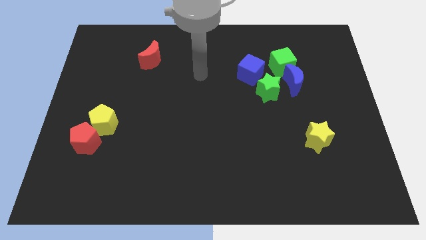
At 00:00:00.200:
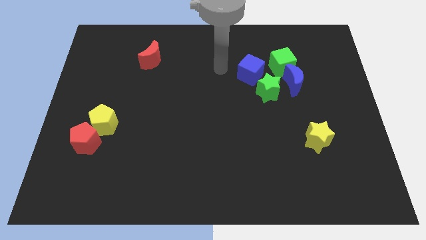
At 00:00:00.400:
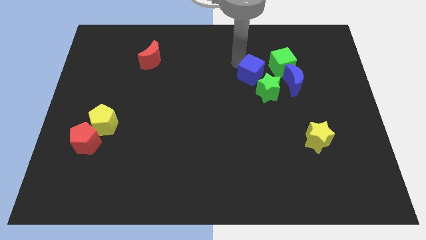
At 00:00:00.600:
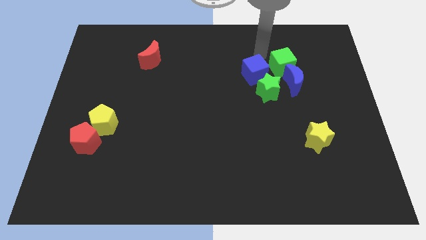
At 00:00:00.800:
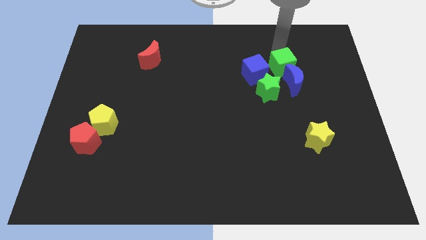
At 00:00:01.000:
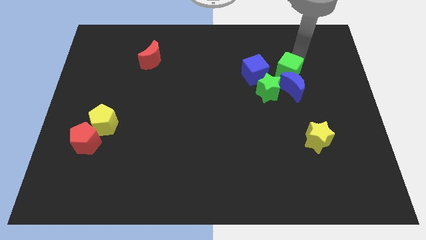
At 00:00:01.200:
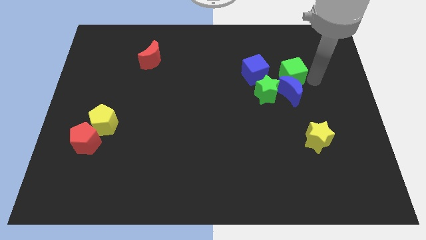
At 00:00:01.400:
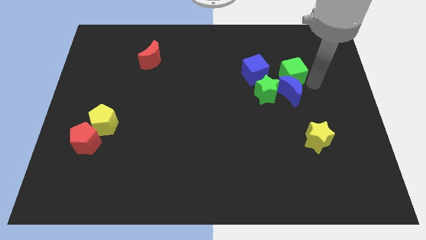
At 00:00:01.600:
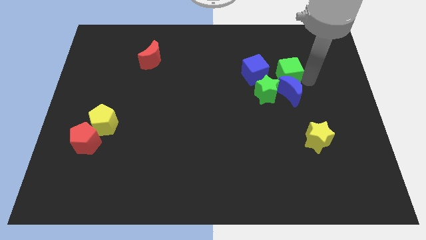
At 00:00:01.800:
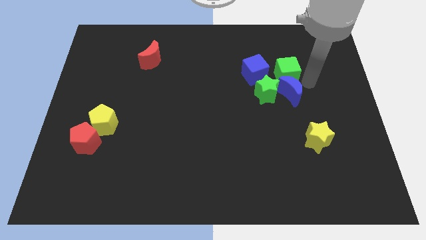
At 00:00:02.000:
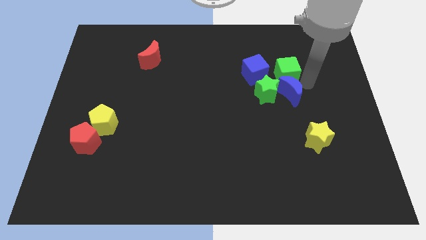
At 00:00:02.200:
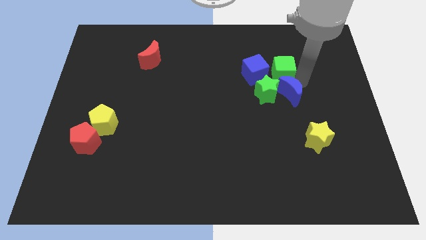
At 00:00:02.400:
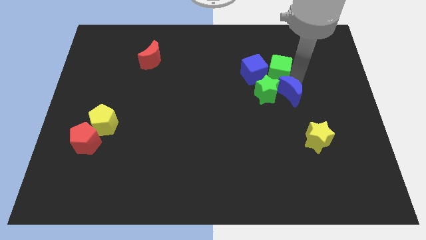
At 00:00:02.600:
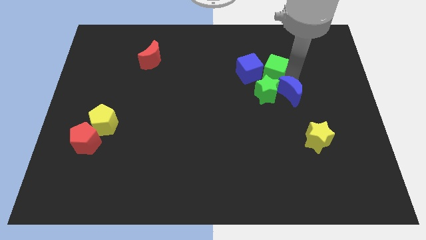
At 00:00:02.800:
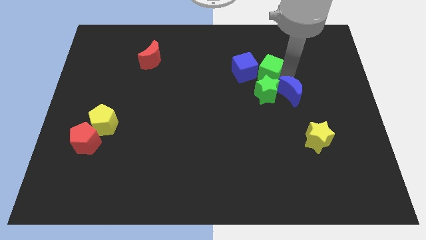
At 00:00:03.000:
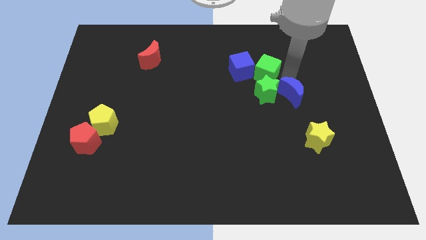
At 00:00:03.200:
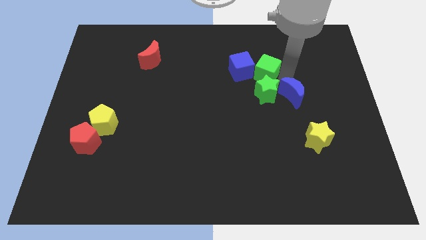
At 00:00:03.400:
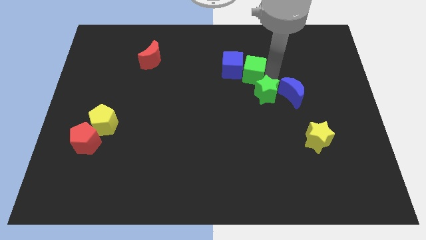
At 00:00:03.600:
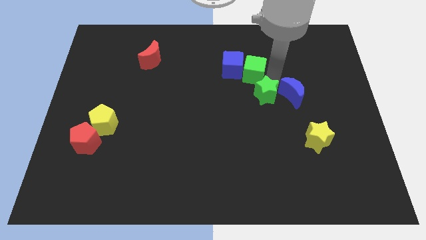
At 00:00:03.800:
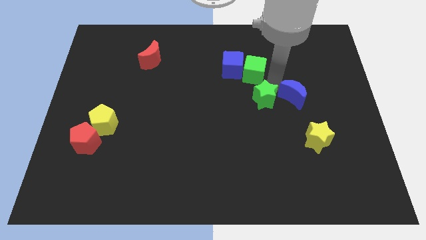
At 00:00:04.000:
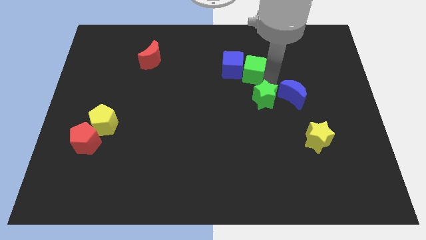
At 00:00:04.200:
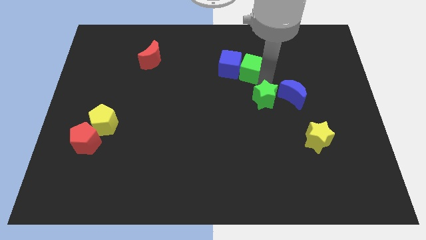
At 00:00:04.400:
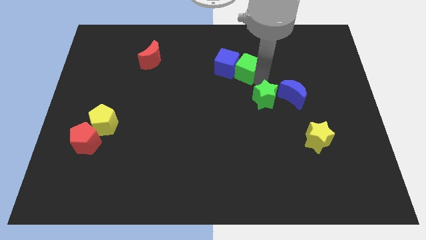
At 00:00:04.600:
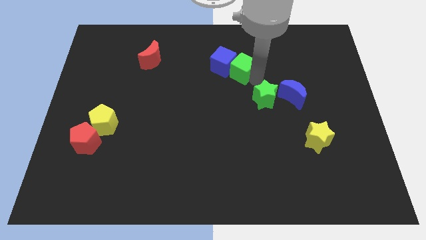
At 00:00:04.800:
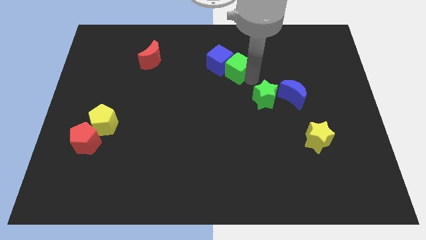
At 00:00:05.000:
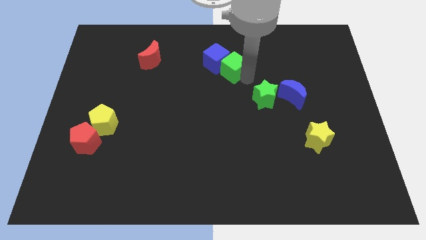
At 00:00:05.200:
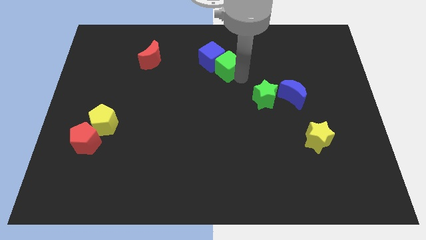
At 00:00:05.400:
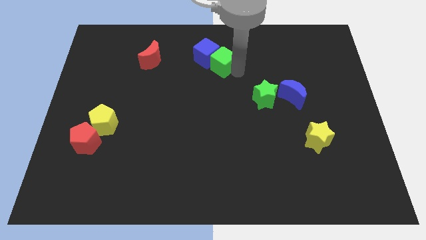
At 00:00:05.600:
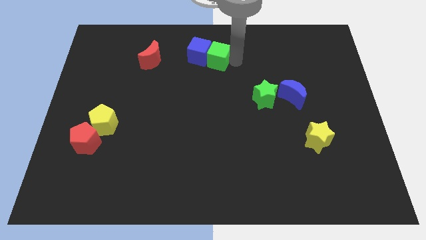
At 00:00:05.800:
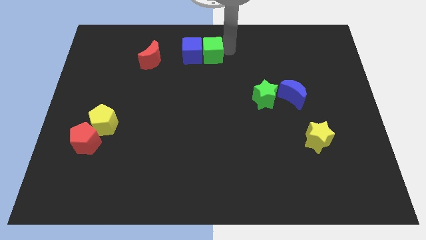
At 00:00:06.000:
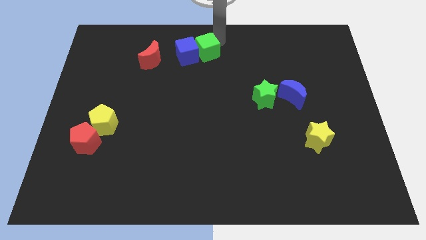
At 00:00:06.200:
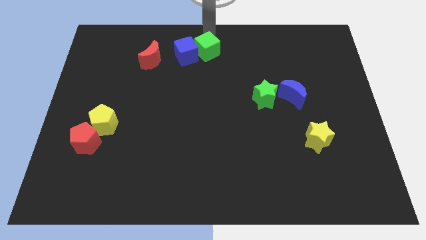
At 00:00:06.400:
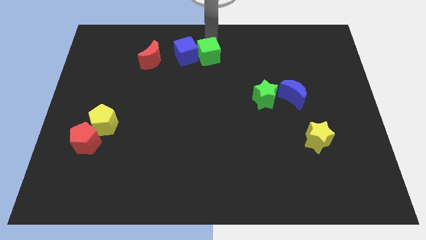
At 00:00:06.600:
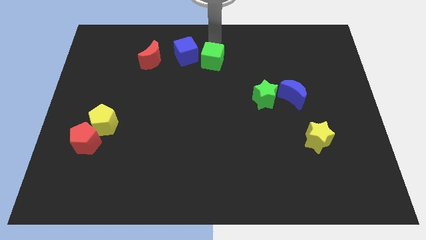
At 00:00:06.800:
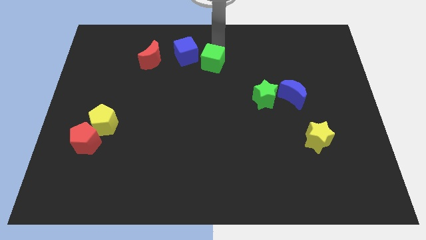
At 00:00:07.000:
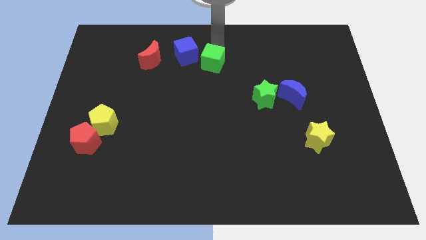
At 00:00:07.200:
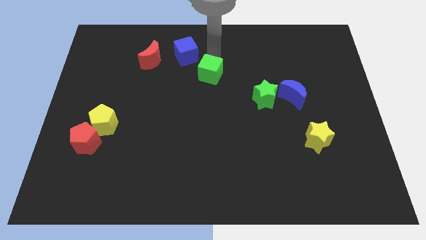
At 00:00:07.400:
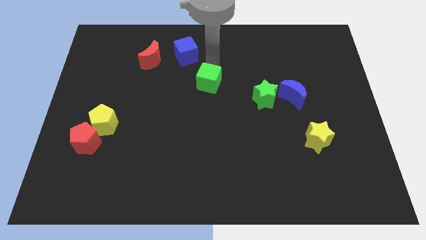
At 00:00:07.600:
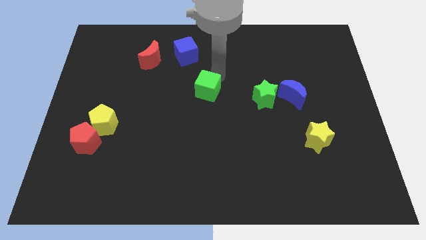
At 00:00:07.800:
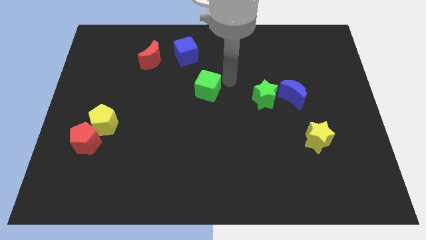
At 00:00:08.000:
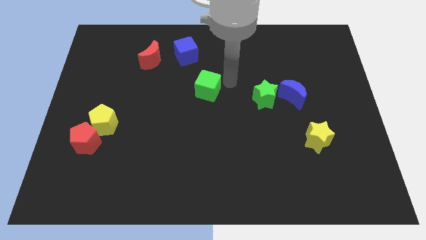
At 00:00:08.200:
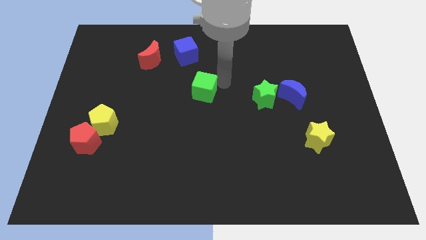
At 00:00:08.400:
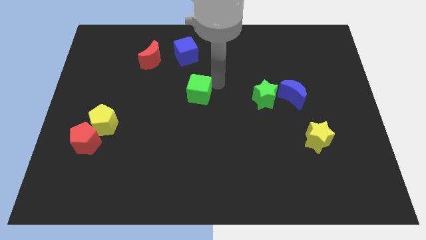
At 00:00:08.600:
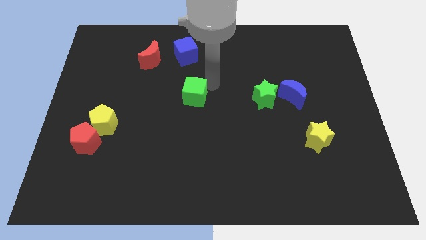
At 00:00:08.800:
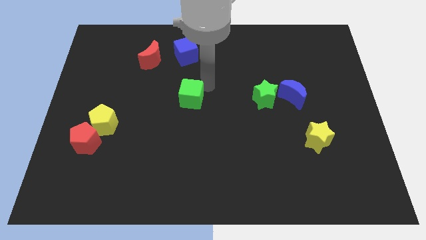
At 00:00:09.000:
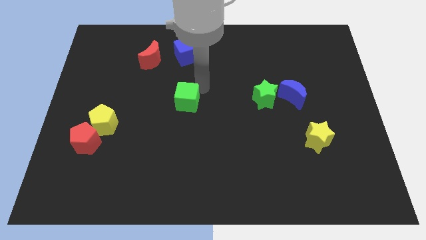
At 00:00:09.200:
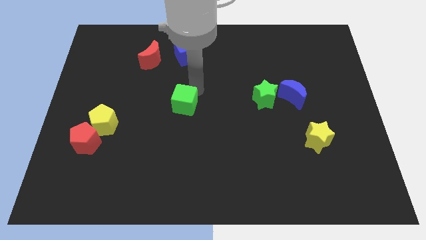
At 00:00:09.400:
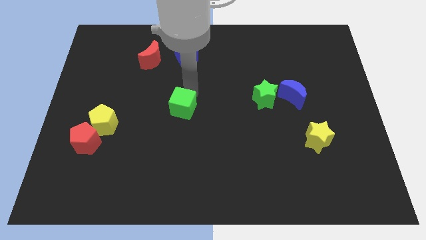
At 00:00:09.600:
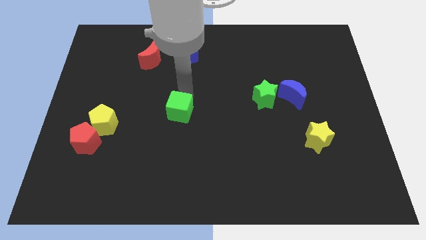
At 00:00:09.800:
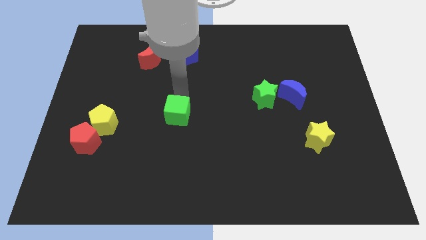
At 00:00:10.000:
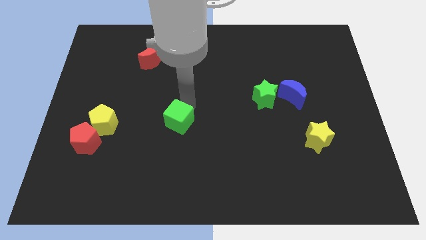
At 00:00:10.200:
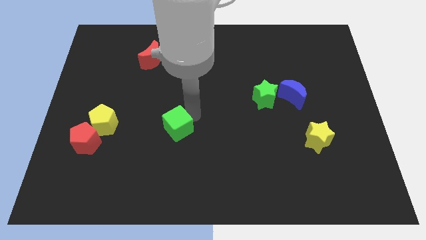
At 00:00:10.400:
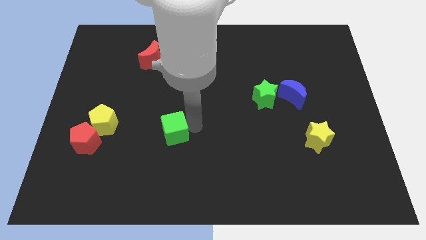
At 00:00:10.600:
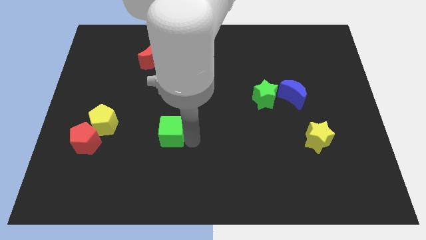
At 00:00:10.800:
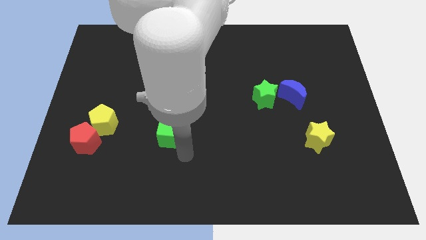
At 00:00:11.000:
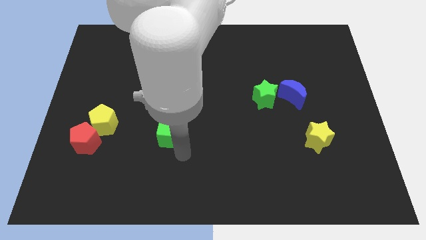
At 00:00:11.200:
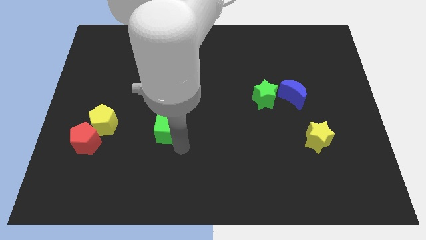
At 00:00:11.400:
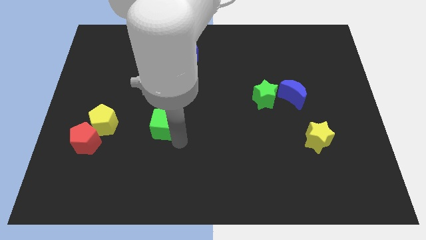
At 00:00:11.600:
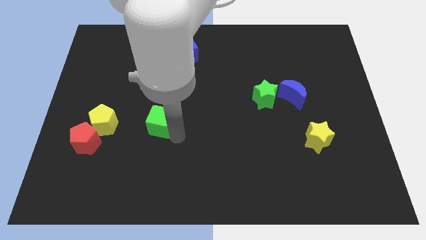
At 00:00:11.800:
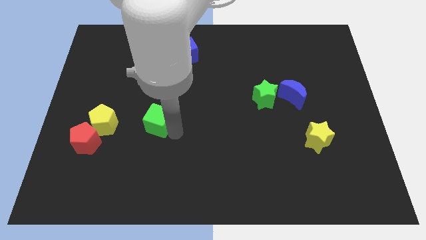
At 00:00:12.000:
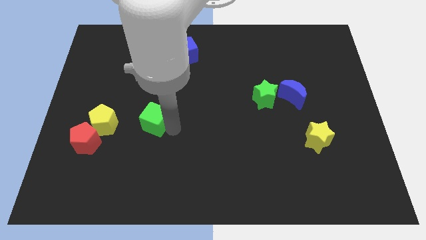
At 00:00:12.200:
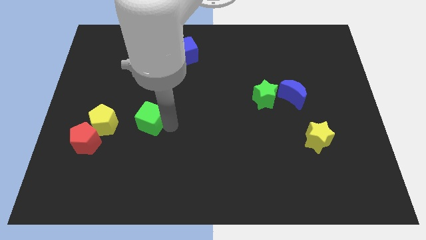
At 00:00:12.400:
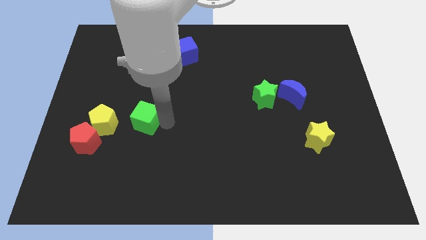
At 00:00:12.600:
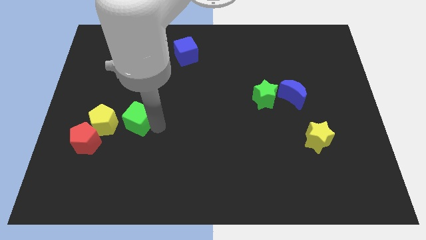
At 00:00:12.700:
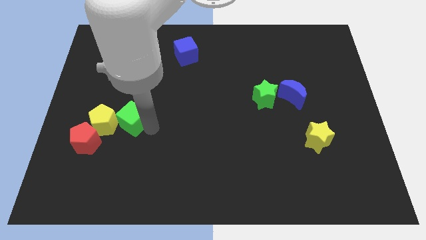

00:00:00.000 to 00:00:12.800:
move the green cube next to the yellow pentagon

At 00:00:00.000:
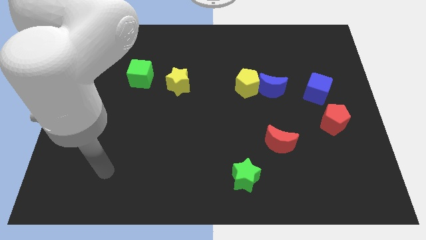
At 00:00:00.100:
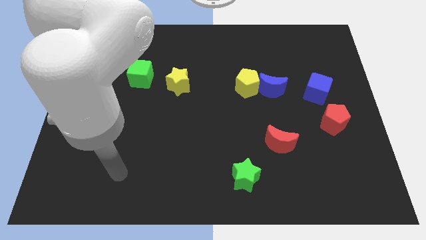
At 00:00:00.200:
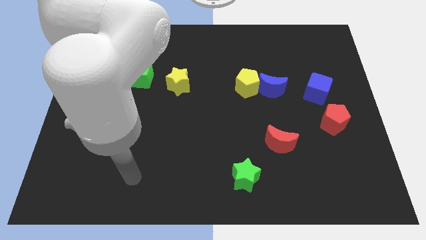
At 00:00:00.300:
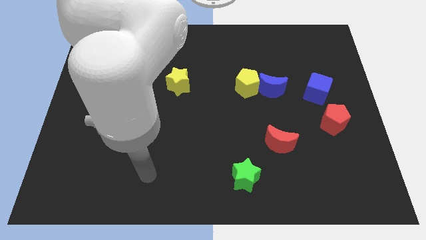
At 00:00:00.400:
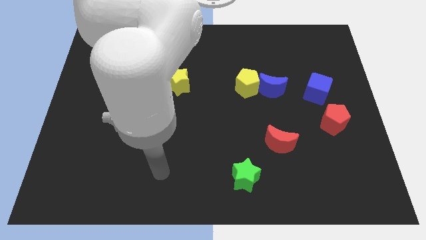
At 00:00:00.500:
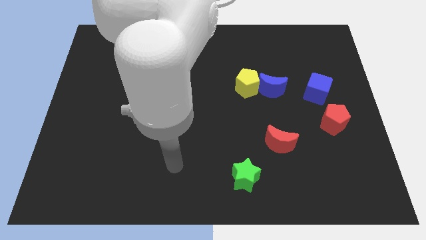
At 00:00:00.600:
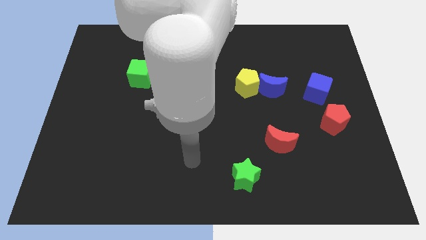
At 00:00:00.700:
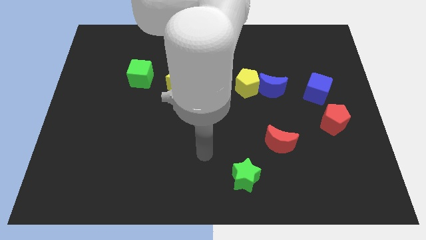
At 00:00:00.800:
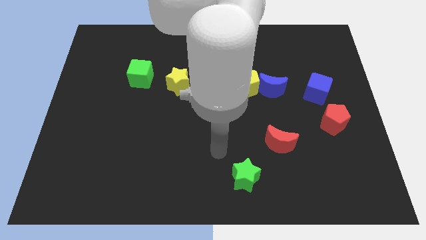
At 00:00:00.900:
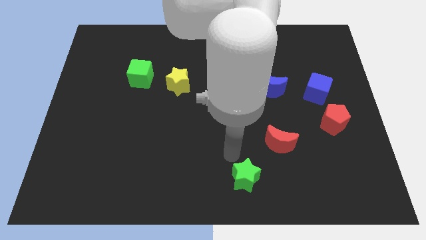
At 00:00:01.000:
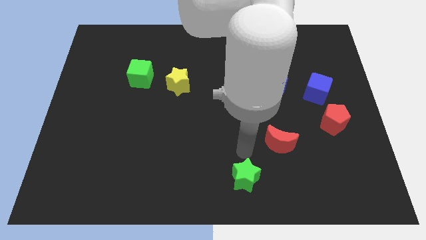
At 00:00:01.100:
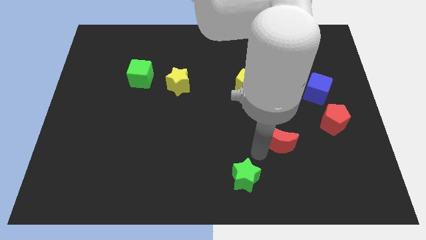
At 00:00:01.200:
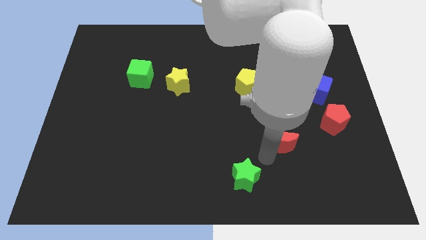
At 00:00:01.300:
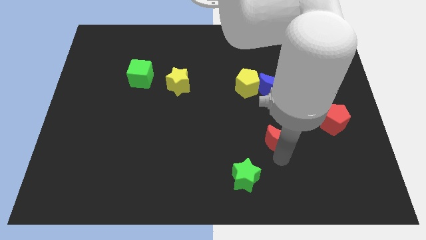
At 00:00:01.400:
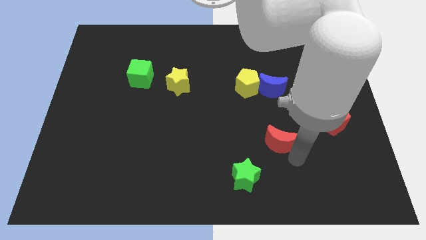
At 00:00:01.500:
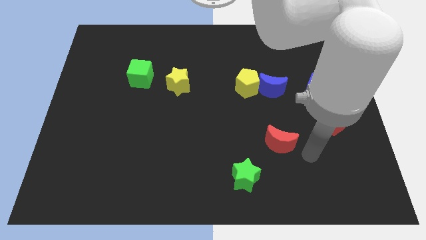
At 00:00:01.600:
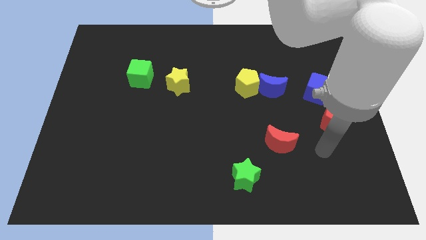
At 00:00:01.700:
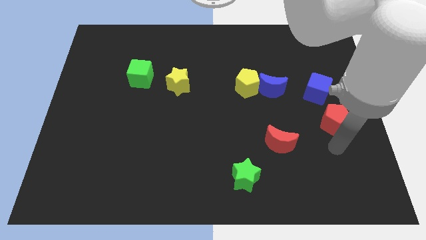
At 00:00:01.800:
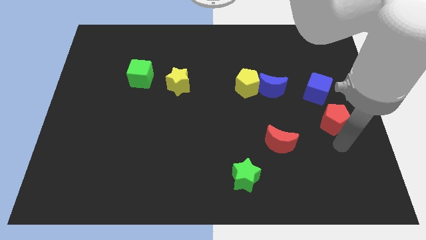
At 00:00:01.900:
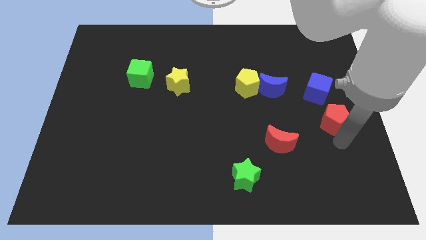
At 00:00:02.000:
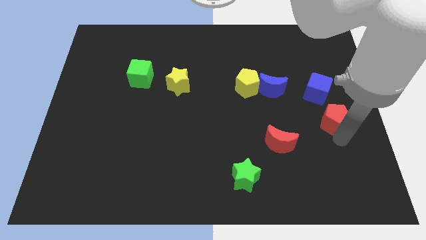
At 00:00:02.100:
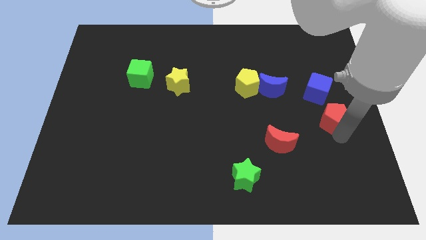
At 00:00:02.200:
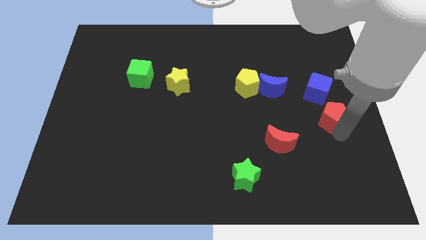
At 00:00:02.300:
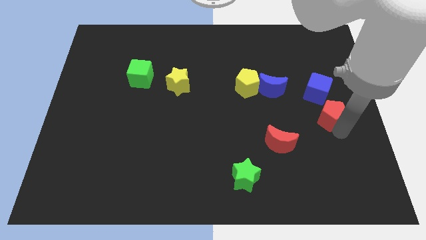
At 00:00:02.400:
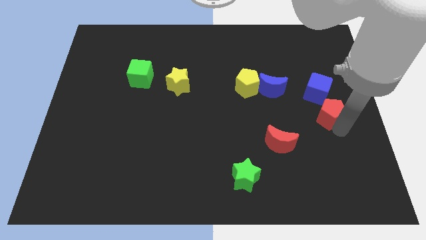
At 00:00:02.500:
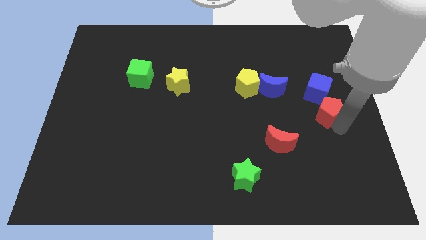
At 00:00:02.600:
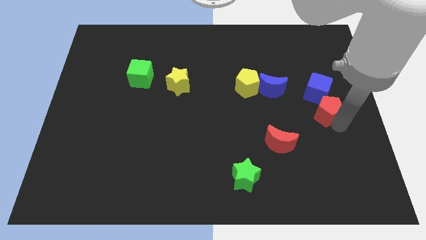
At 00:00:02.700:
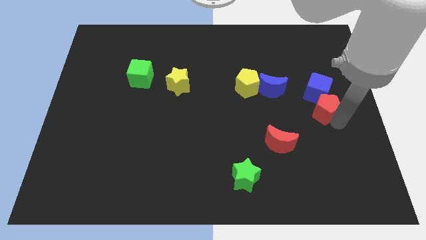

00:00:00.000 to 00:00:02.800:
move the red pentagon next to the blue cube
